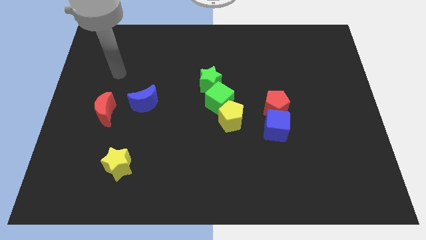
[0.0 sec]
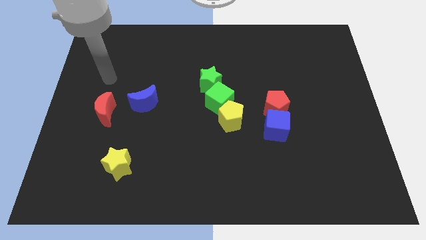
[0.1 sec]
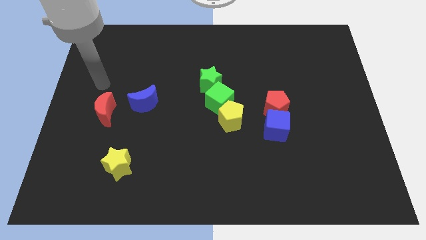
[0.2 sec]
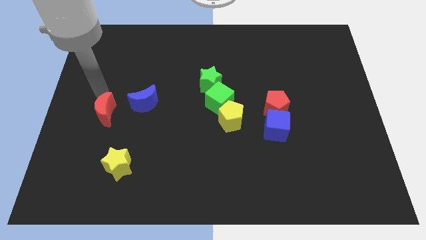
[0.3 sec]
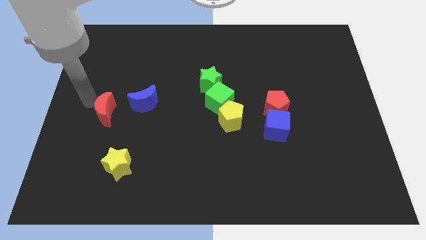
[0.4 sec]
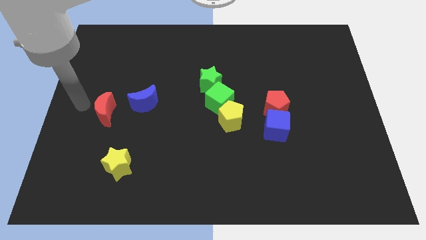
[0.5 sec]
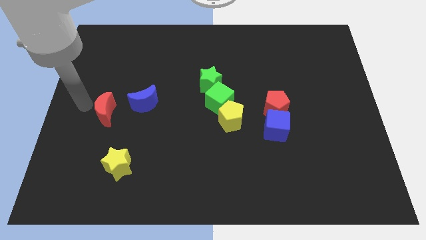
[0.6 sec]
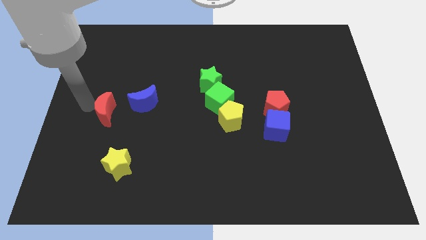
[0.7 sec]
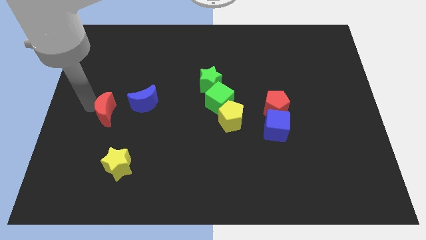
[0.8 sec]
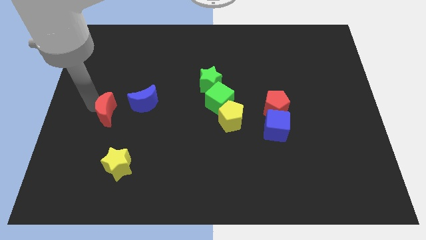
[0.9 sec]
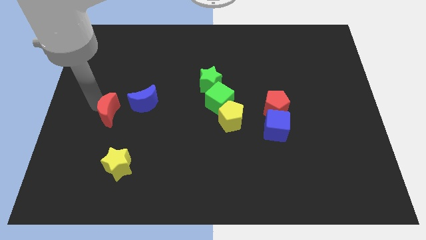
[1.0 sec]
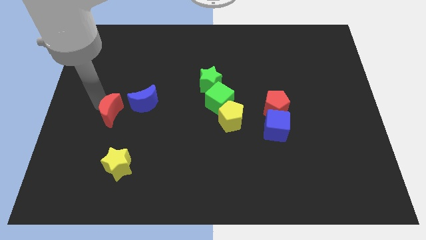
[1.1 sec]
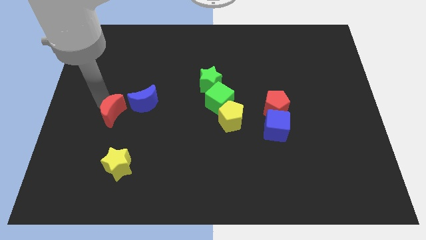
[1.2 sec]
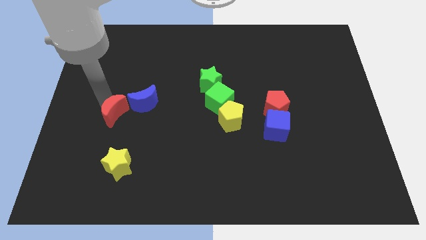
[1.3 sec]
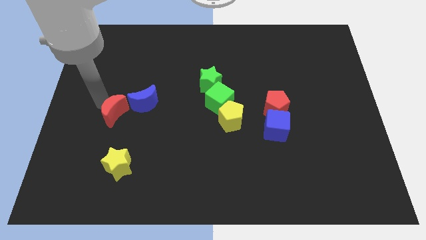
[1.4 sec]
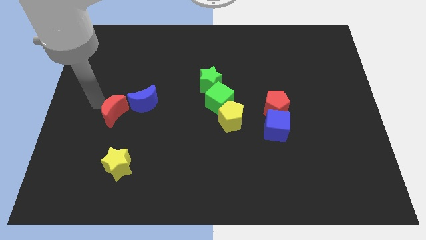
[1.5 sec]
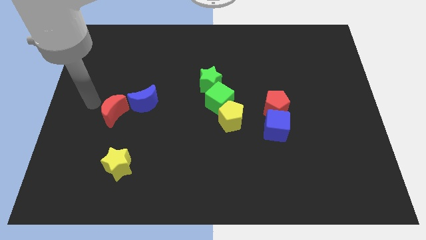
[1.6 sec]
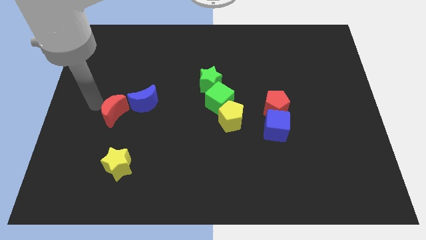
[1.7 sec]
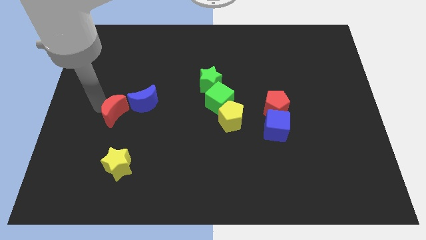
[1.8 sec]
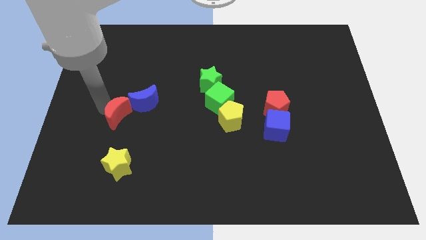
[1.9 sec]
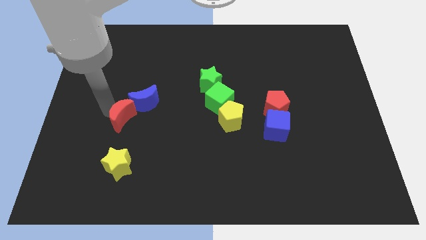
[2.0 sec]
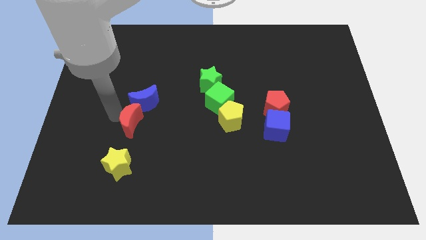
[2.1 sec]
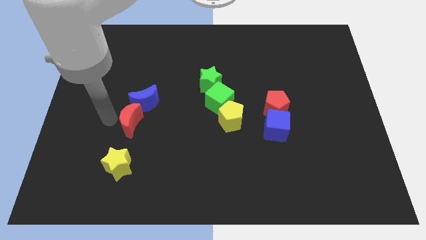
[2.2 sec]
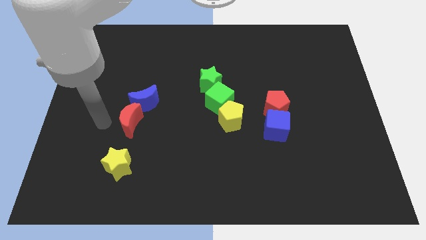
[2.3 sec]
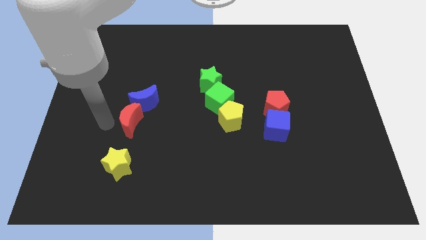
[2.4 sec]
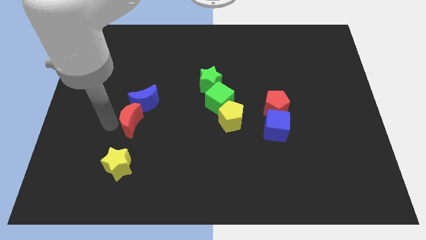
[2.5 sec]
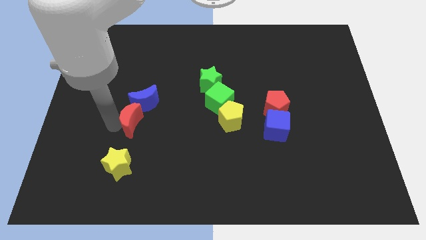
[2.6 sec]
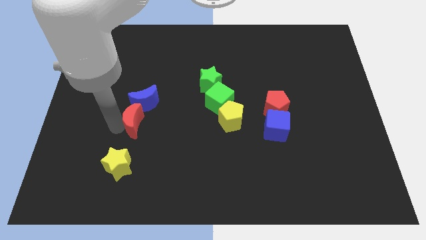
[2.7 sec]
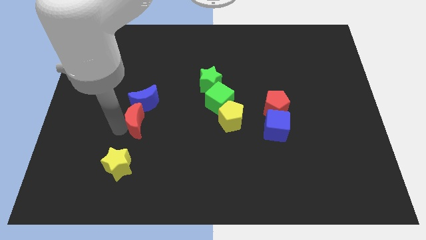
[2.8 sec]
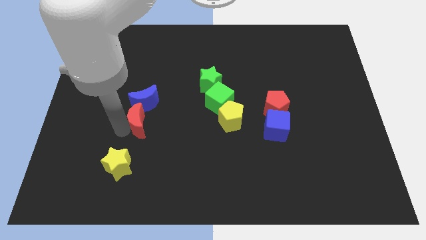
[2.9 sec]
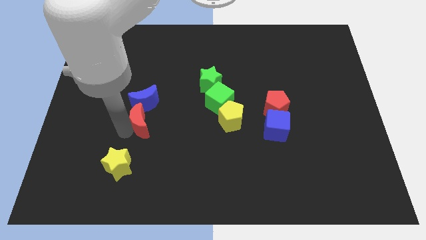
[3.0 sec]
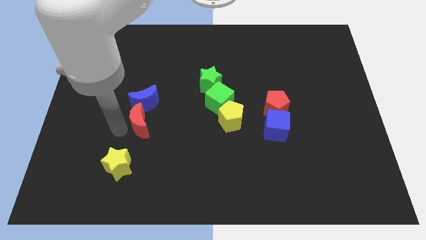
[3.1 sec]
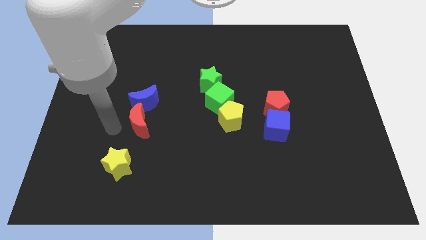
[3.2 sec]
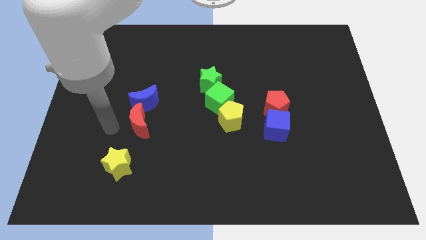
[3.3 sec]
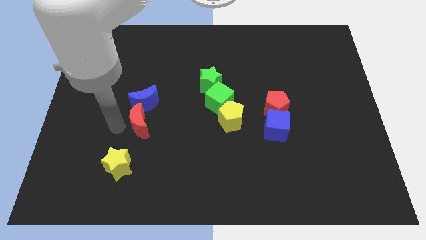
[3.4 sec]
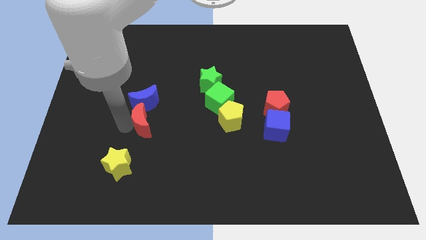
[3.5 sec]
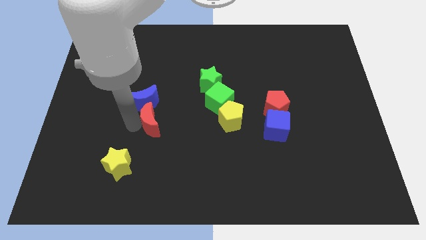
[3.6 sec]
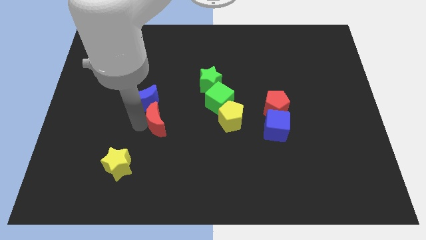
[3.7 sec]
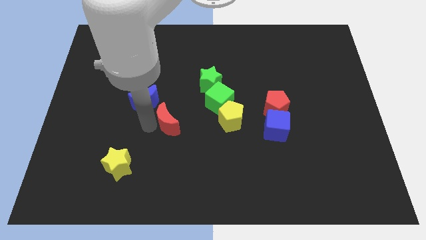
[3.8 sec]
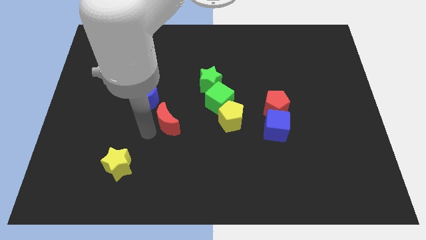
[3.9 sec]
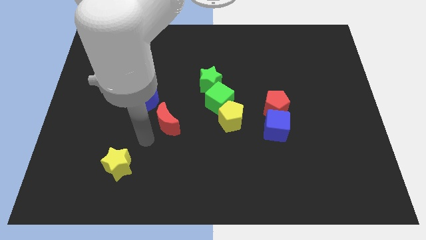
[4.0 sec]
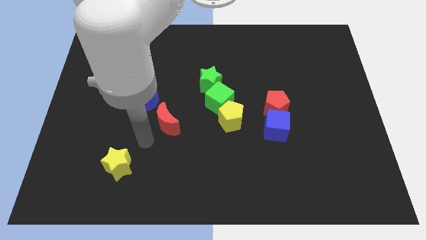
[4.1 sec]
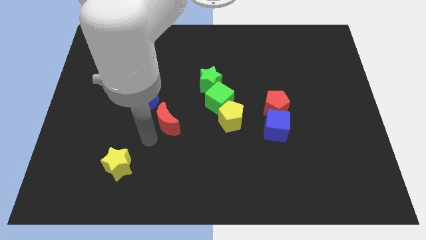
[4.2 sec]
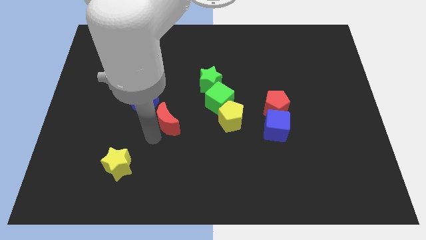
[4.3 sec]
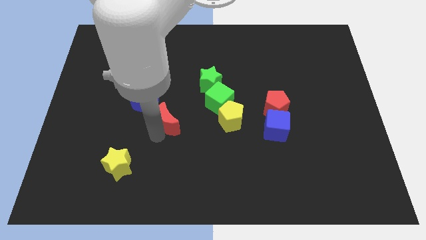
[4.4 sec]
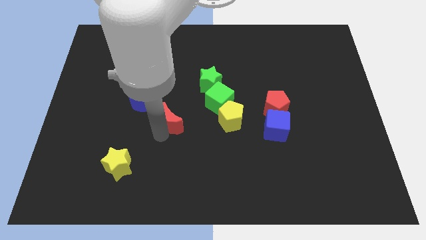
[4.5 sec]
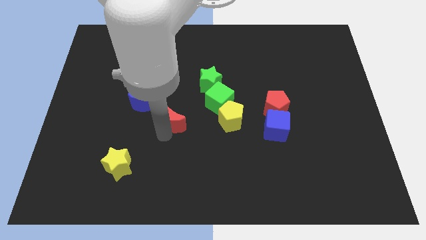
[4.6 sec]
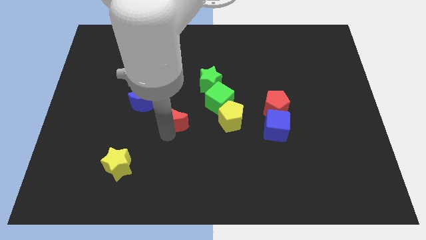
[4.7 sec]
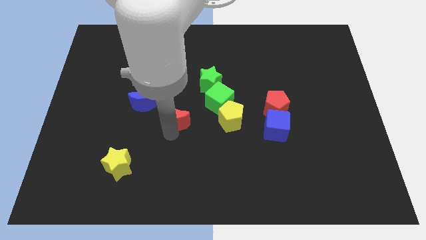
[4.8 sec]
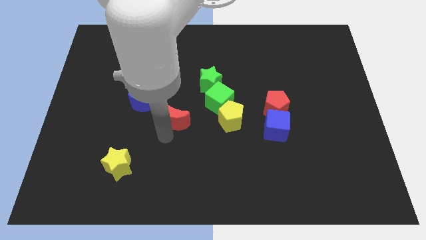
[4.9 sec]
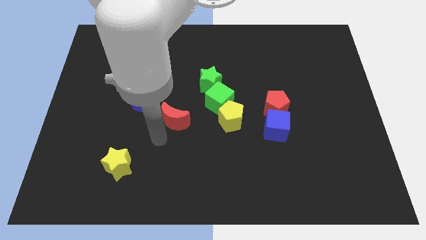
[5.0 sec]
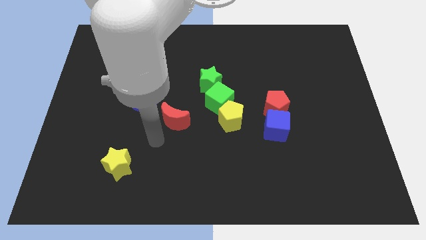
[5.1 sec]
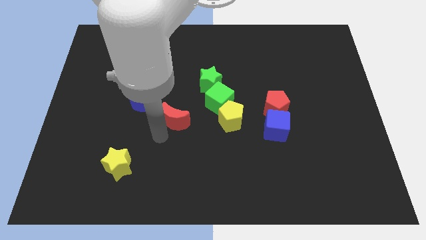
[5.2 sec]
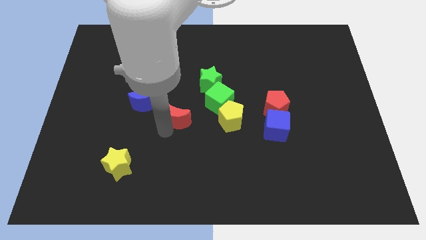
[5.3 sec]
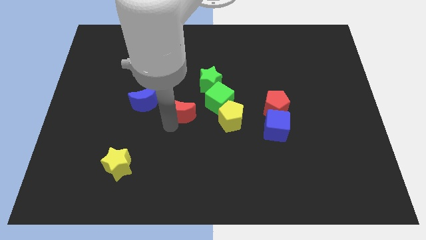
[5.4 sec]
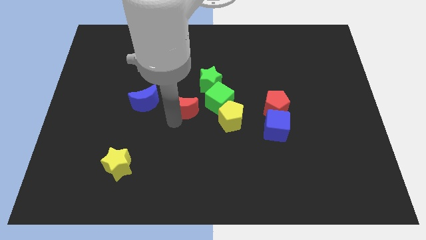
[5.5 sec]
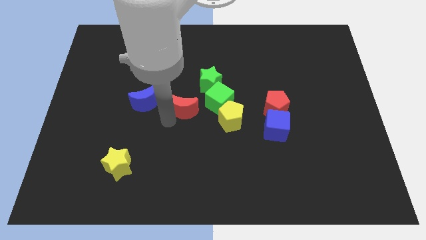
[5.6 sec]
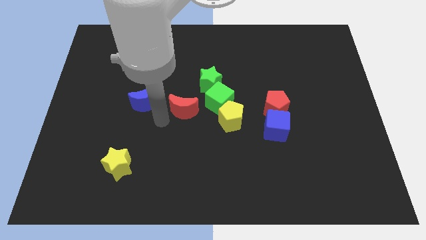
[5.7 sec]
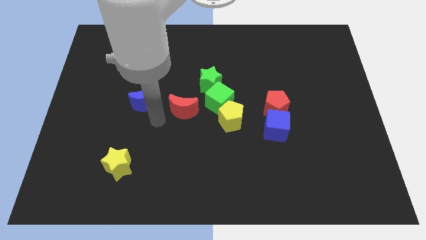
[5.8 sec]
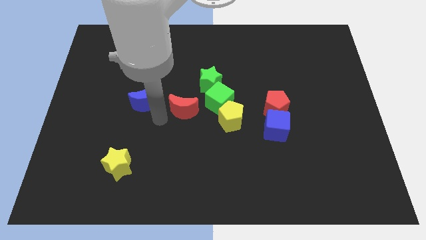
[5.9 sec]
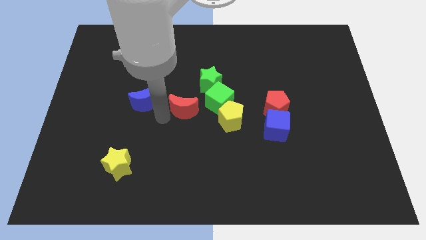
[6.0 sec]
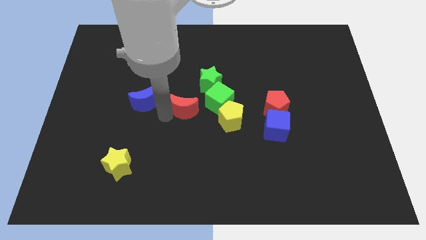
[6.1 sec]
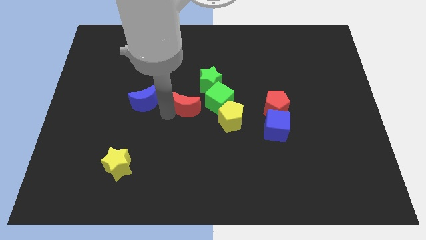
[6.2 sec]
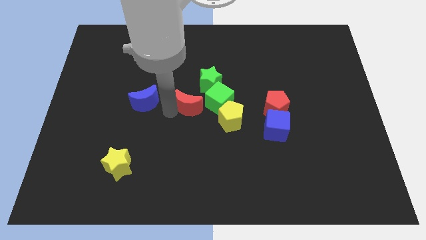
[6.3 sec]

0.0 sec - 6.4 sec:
put the red moon to the top left side of the yellow pentagon

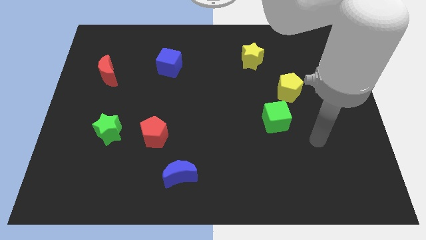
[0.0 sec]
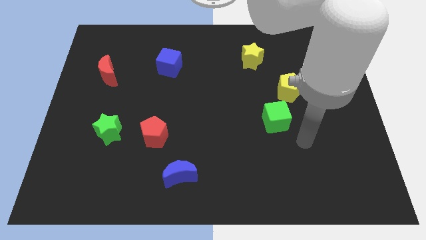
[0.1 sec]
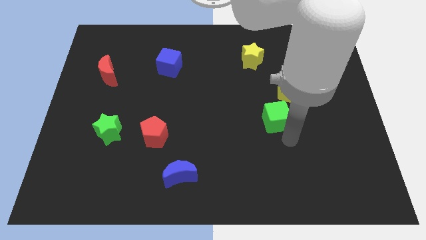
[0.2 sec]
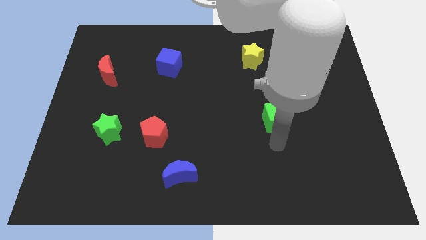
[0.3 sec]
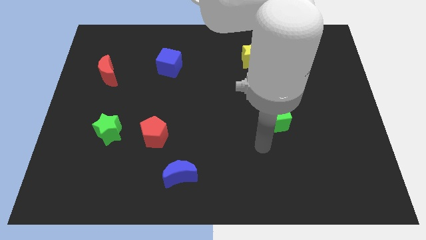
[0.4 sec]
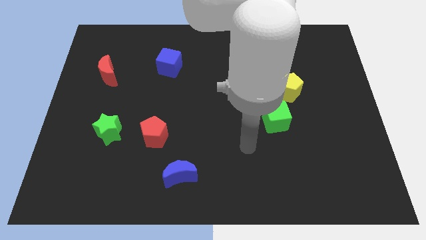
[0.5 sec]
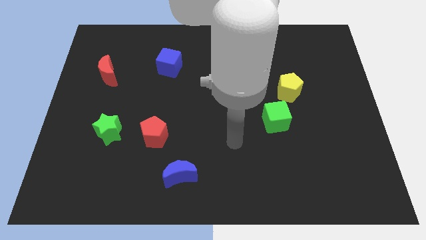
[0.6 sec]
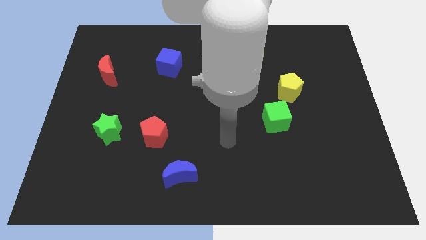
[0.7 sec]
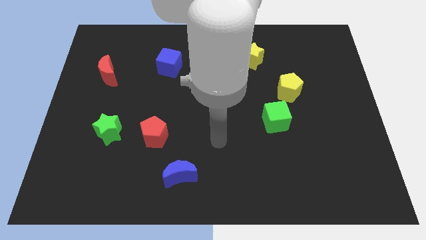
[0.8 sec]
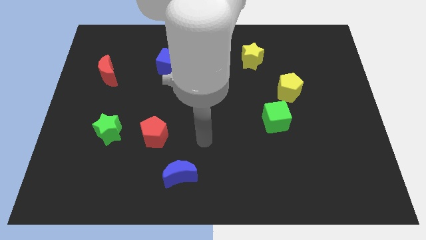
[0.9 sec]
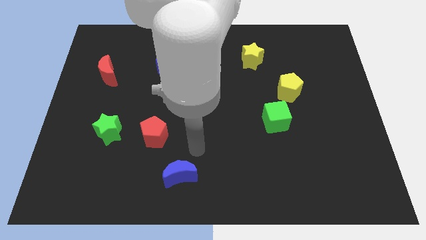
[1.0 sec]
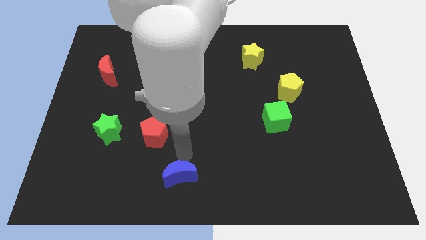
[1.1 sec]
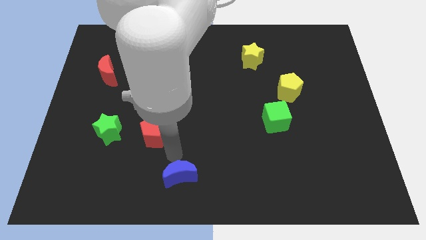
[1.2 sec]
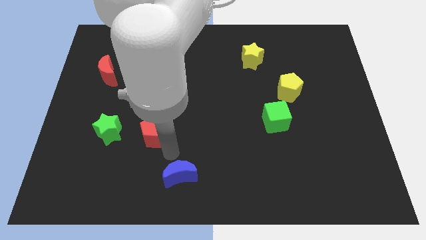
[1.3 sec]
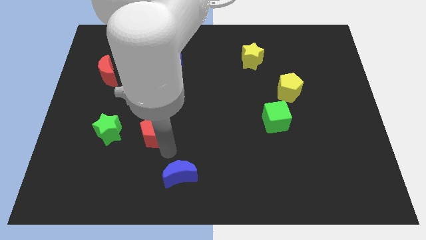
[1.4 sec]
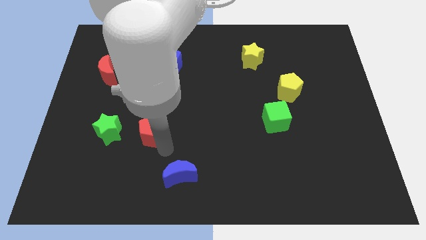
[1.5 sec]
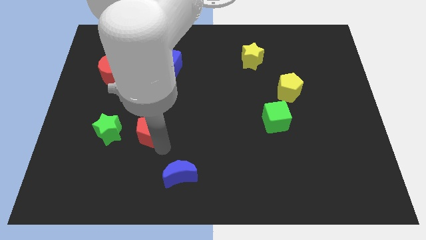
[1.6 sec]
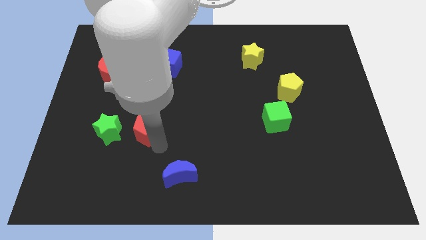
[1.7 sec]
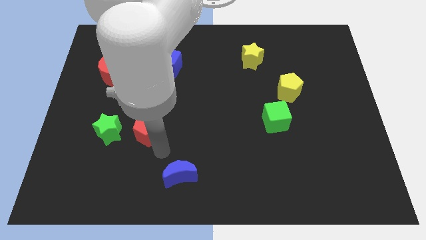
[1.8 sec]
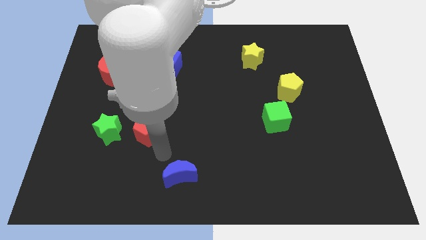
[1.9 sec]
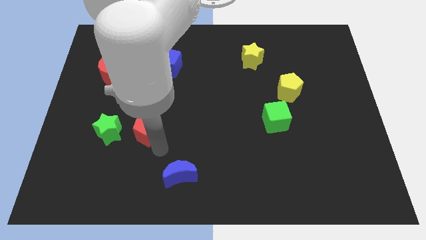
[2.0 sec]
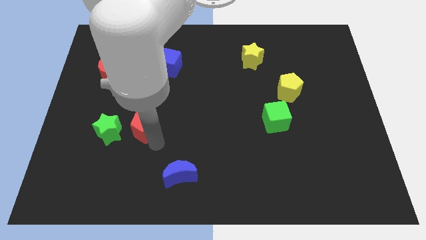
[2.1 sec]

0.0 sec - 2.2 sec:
move the red pentagon to the top right of the green star
